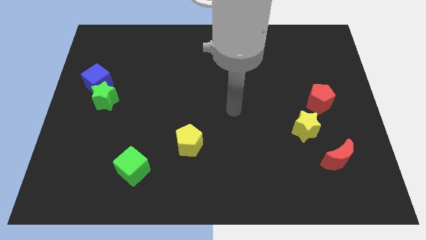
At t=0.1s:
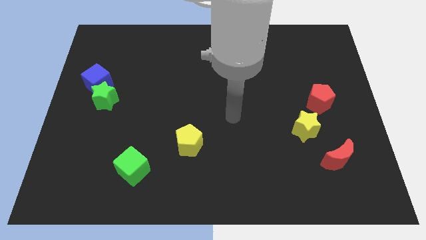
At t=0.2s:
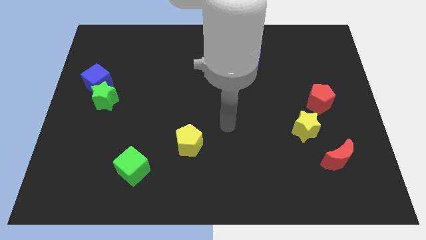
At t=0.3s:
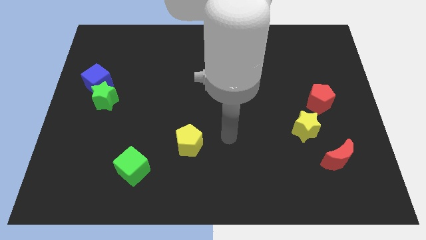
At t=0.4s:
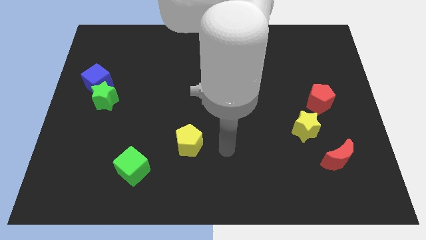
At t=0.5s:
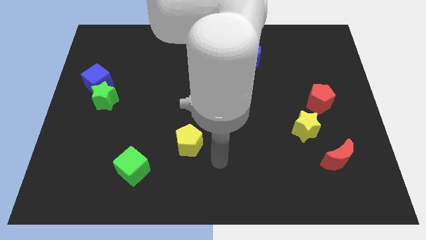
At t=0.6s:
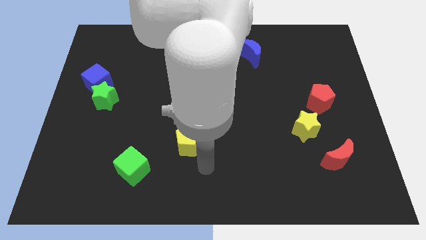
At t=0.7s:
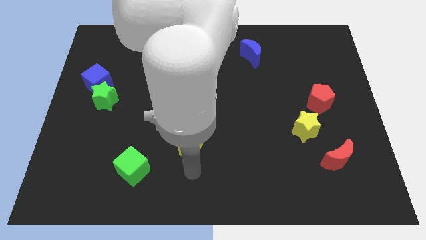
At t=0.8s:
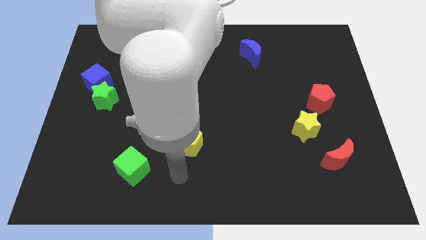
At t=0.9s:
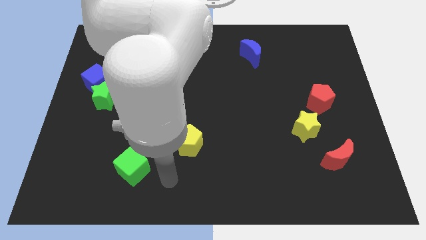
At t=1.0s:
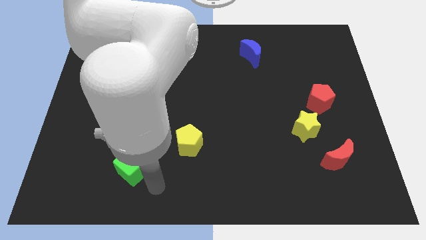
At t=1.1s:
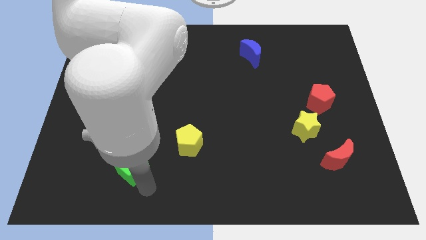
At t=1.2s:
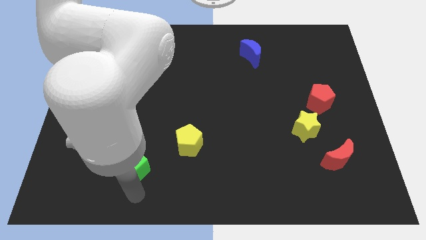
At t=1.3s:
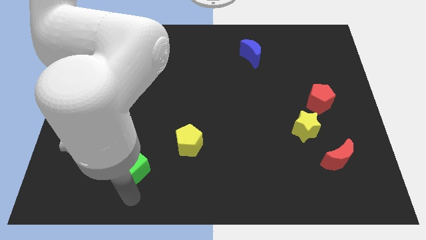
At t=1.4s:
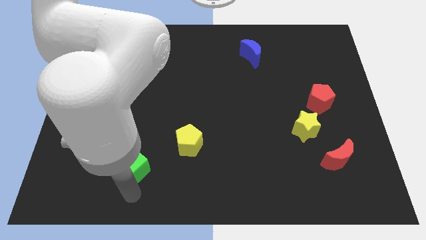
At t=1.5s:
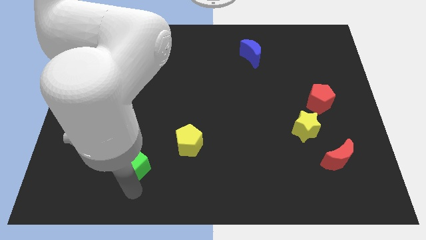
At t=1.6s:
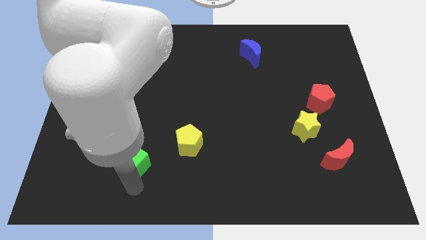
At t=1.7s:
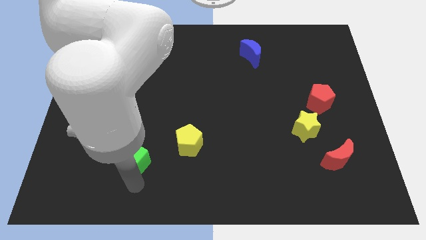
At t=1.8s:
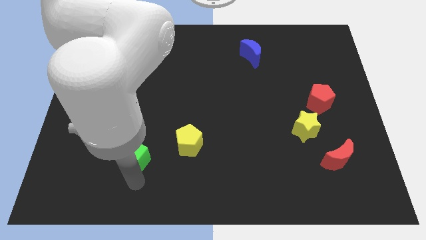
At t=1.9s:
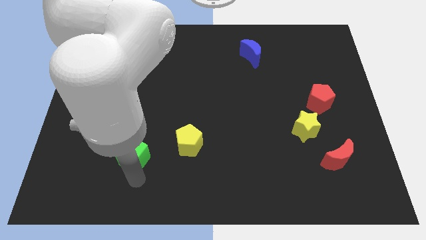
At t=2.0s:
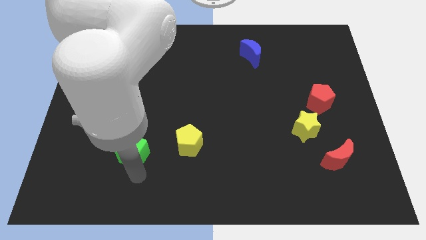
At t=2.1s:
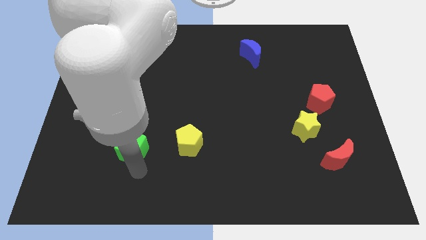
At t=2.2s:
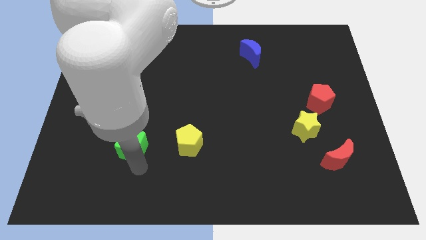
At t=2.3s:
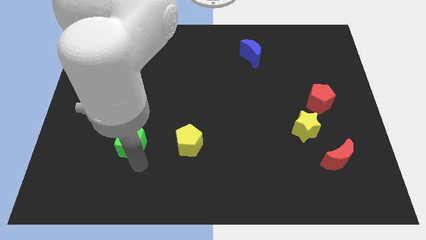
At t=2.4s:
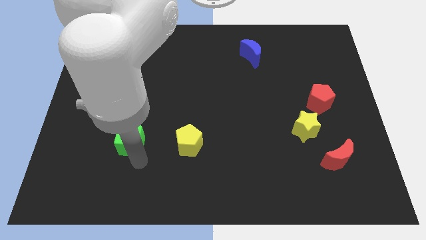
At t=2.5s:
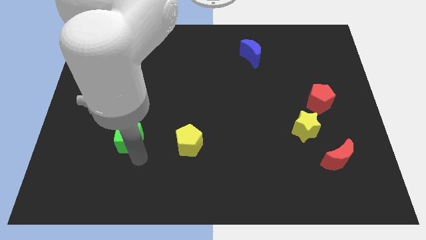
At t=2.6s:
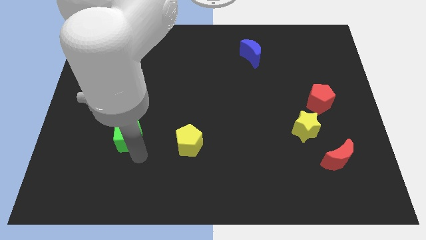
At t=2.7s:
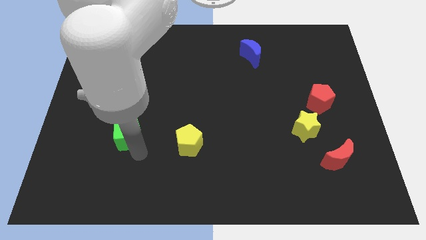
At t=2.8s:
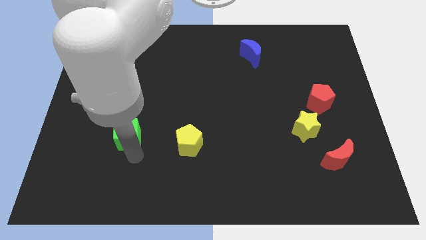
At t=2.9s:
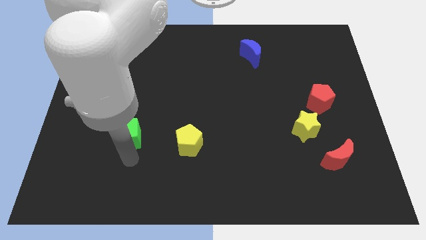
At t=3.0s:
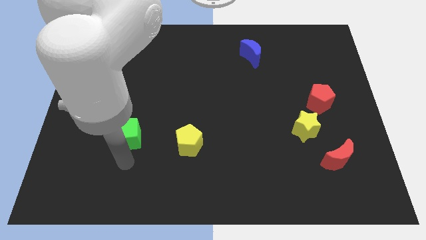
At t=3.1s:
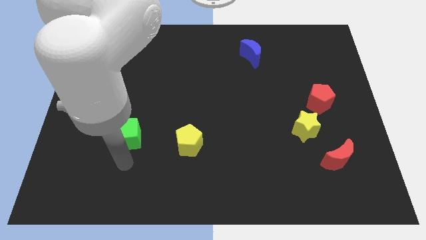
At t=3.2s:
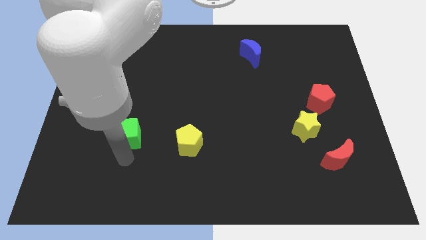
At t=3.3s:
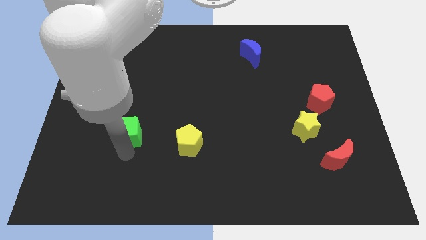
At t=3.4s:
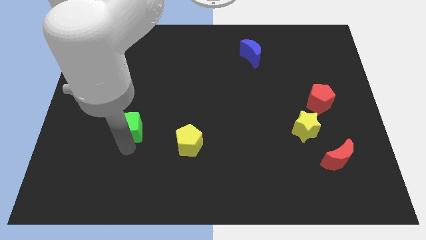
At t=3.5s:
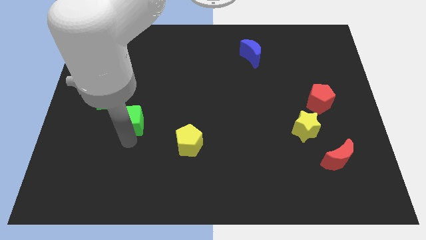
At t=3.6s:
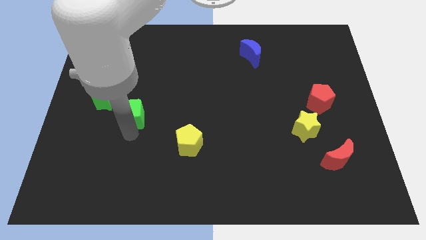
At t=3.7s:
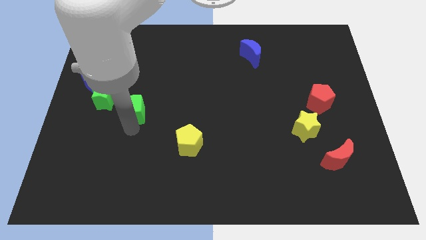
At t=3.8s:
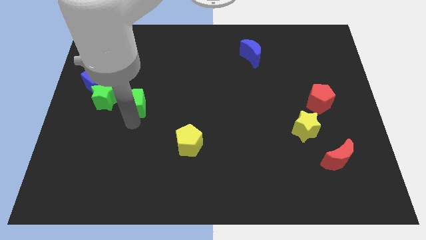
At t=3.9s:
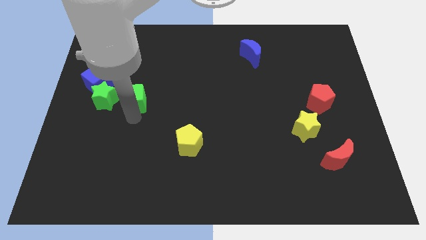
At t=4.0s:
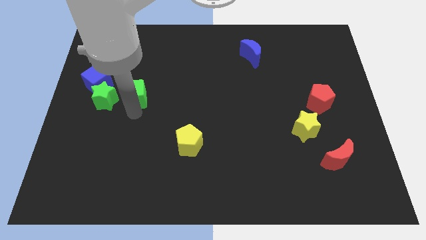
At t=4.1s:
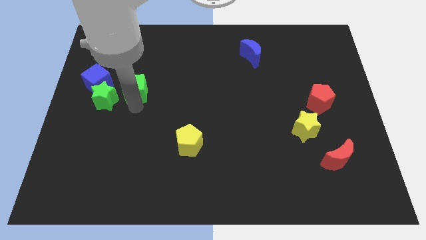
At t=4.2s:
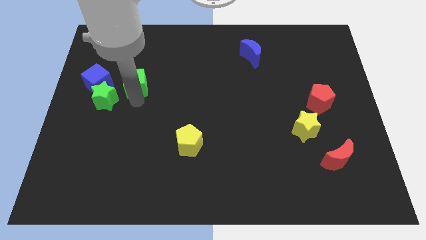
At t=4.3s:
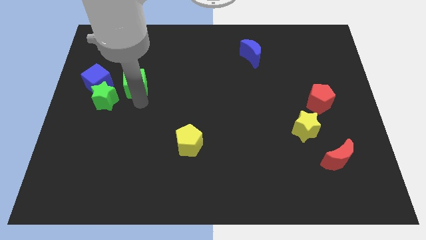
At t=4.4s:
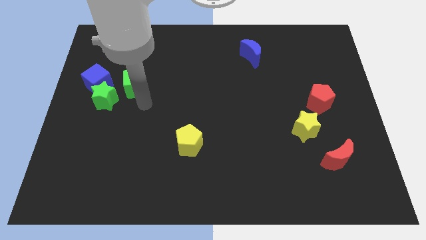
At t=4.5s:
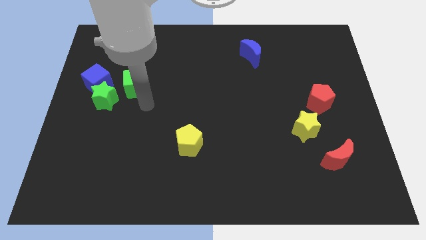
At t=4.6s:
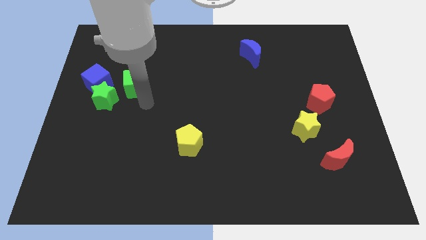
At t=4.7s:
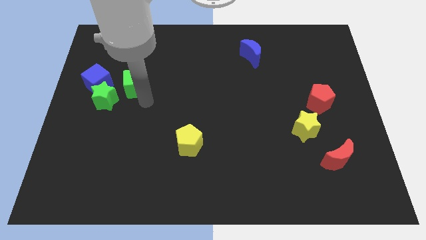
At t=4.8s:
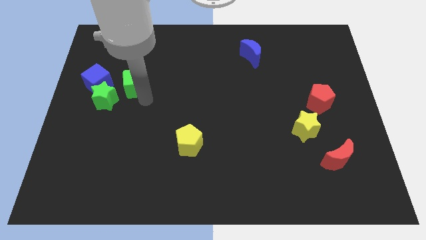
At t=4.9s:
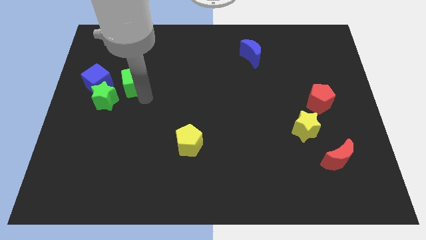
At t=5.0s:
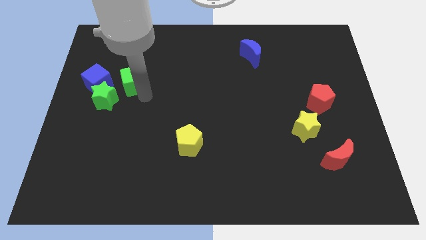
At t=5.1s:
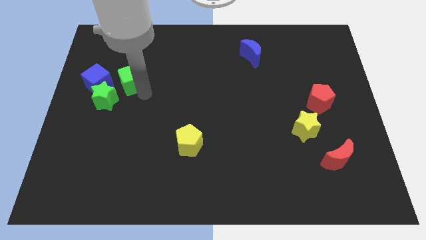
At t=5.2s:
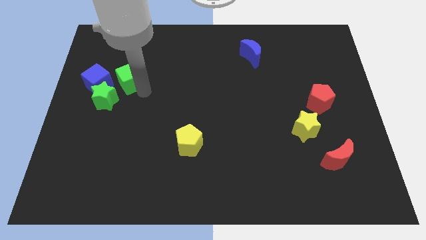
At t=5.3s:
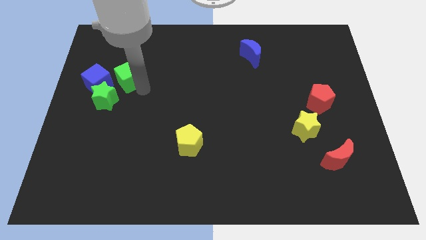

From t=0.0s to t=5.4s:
put the green cube diagonally up and to the right of the blue cube

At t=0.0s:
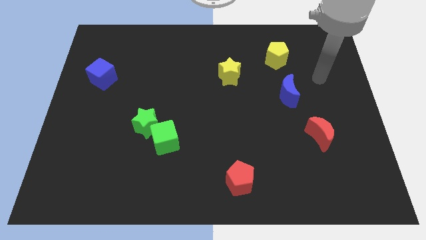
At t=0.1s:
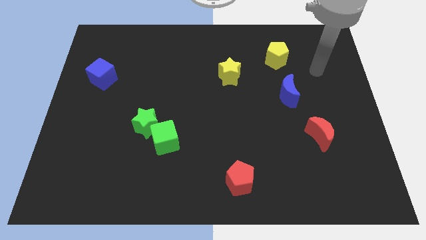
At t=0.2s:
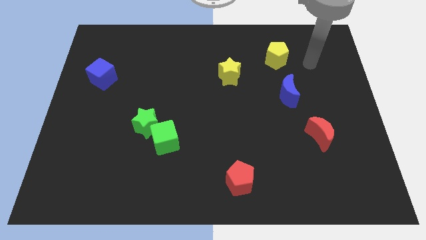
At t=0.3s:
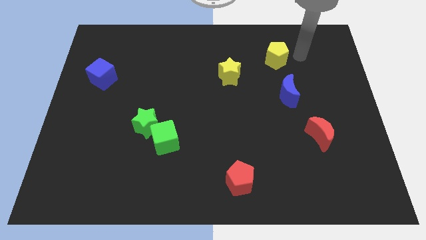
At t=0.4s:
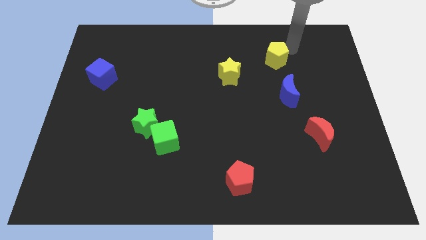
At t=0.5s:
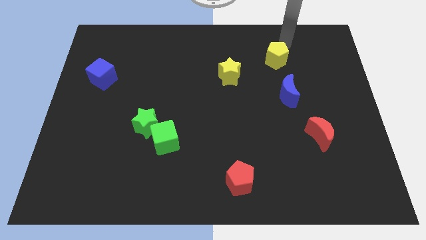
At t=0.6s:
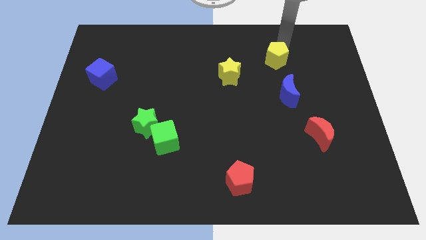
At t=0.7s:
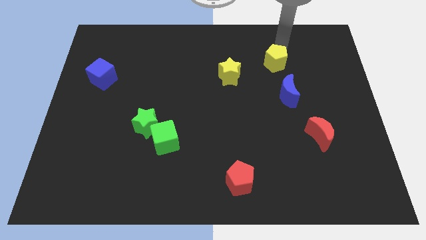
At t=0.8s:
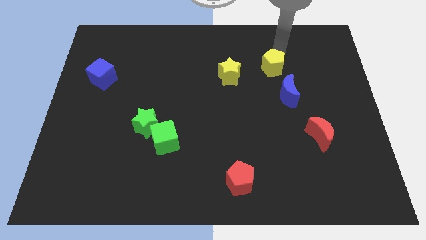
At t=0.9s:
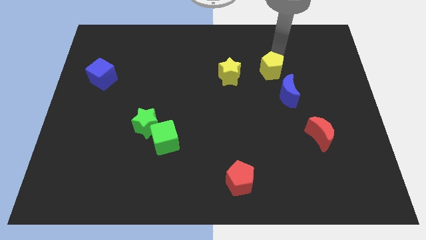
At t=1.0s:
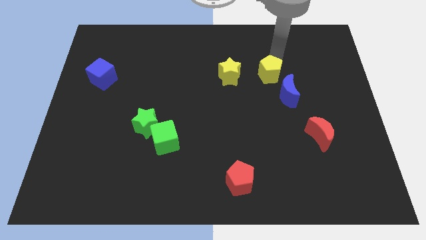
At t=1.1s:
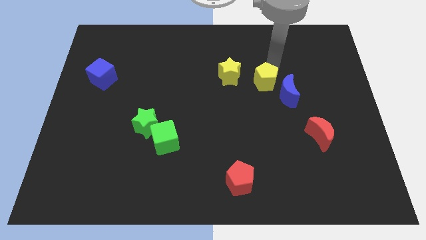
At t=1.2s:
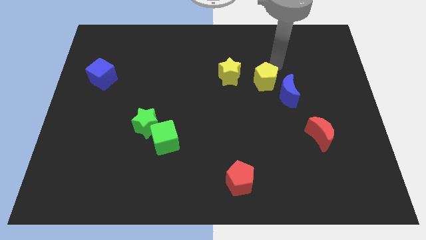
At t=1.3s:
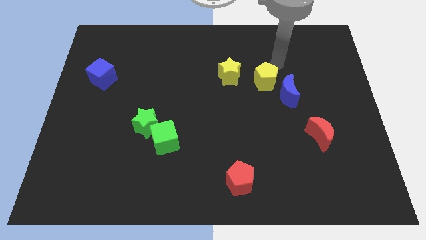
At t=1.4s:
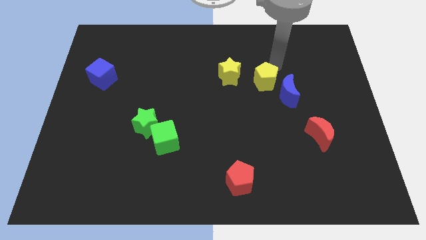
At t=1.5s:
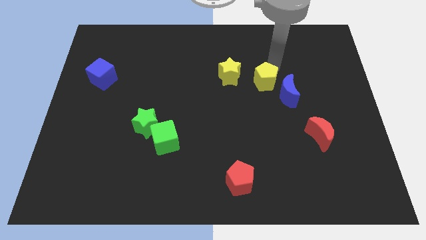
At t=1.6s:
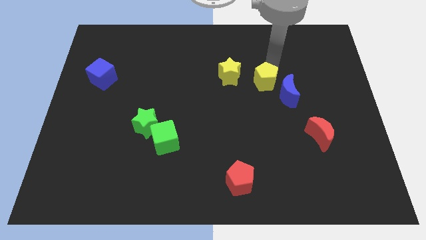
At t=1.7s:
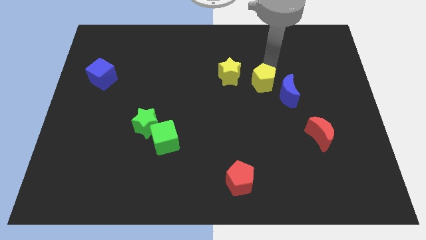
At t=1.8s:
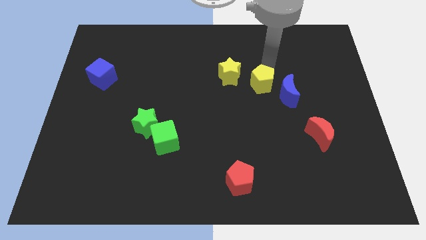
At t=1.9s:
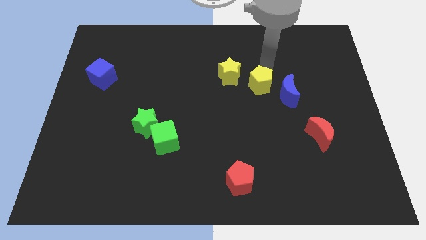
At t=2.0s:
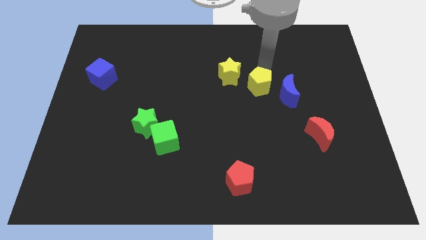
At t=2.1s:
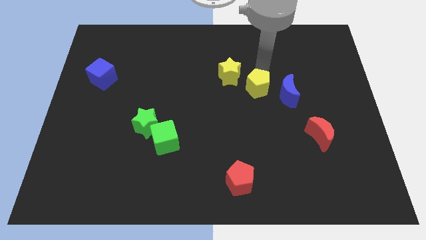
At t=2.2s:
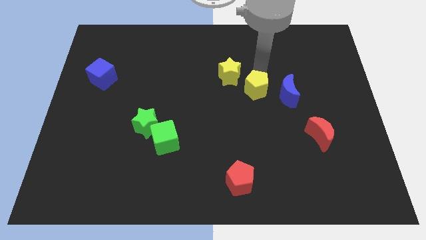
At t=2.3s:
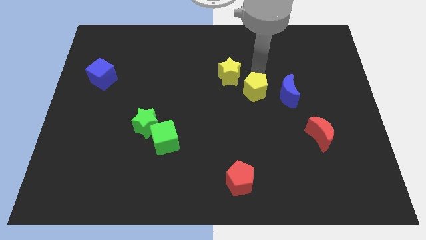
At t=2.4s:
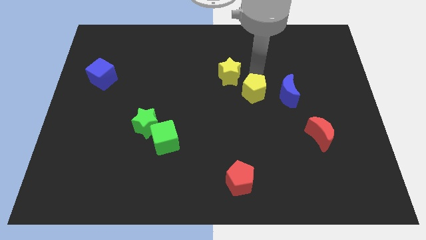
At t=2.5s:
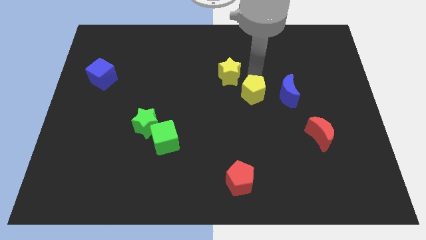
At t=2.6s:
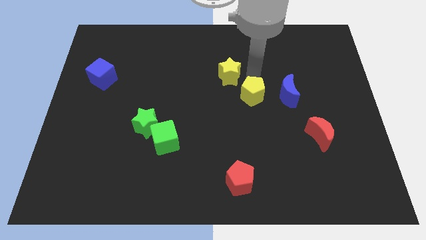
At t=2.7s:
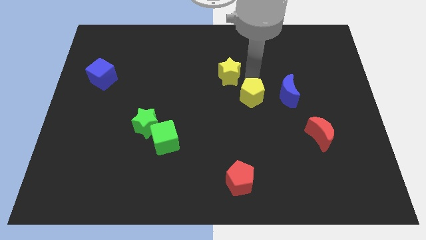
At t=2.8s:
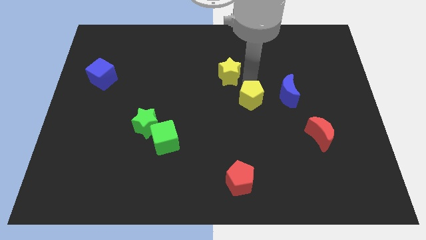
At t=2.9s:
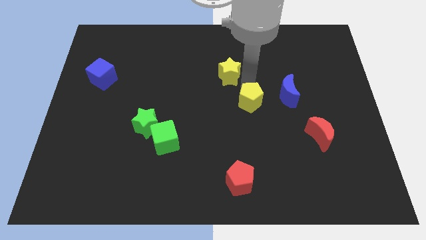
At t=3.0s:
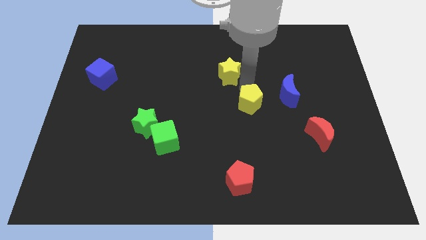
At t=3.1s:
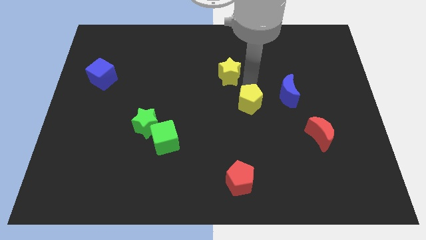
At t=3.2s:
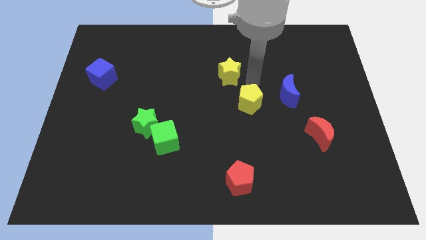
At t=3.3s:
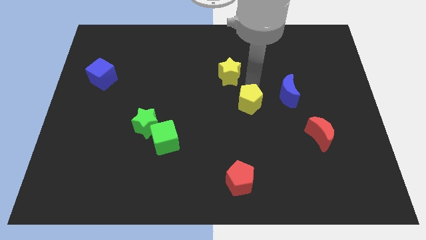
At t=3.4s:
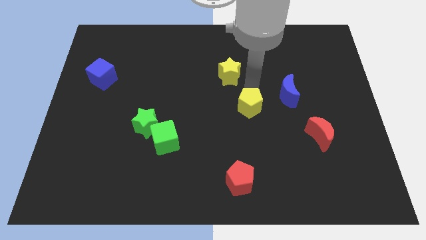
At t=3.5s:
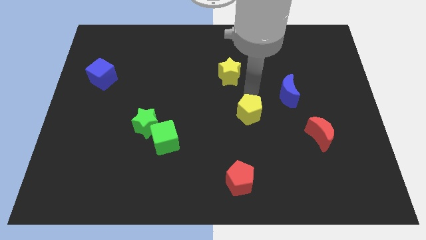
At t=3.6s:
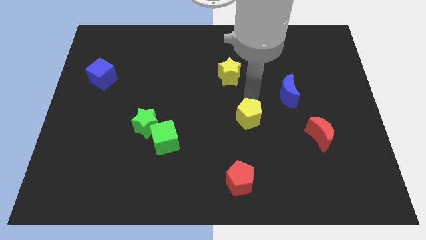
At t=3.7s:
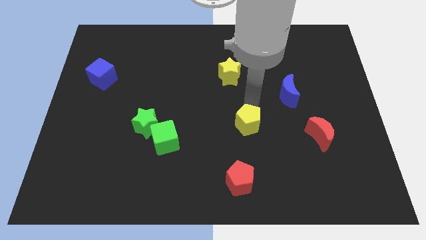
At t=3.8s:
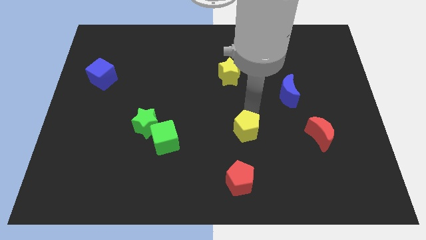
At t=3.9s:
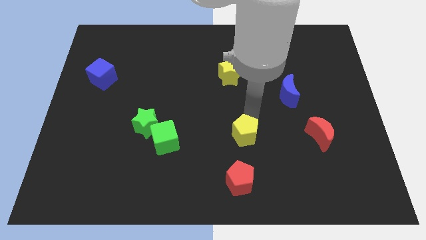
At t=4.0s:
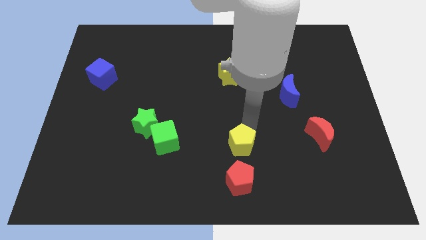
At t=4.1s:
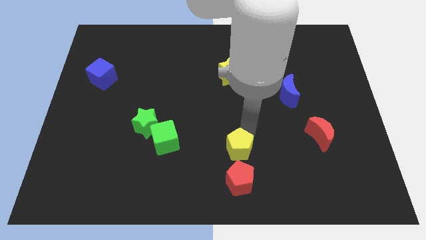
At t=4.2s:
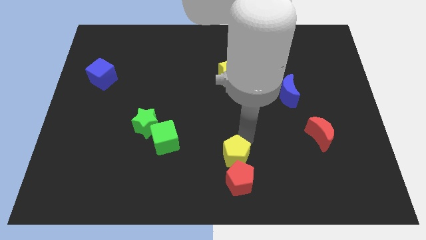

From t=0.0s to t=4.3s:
put the yellow pentagon to the top left of the red pentagon
